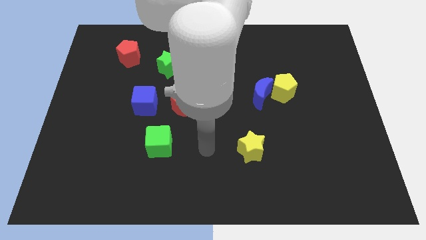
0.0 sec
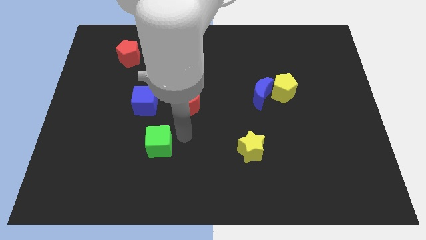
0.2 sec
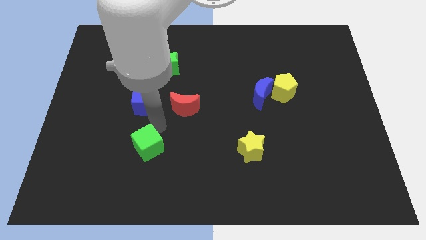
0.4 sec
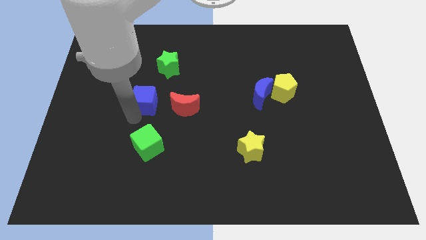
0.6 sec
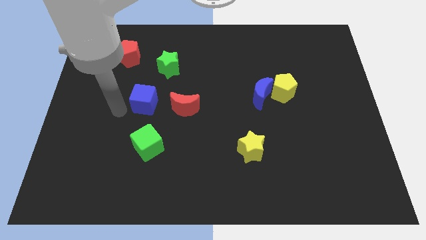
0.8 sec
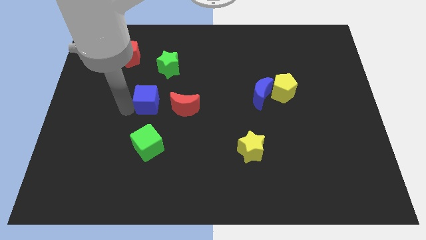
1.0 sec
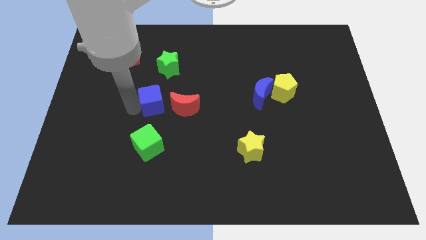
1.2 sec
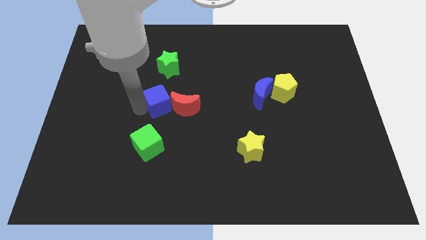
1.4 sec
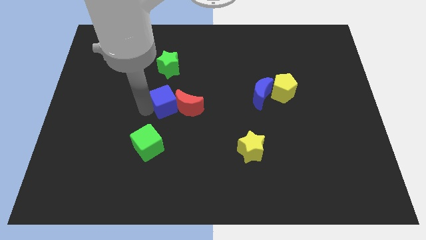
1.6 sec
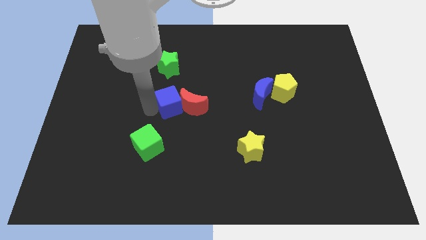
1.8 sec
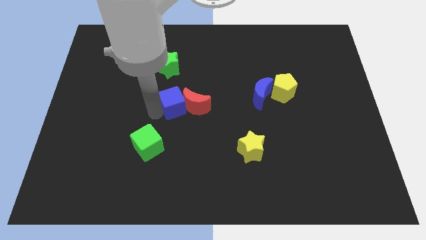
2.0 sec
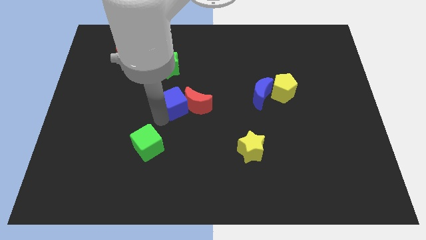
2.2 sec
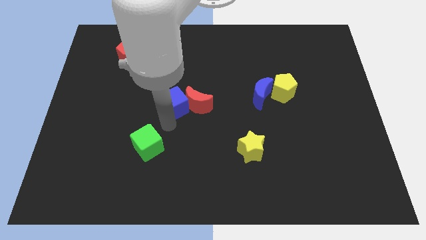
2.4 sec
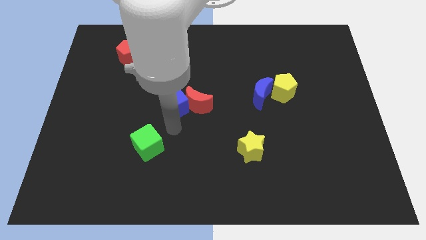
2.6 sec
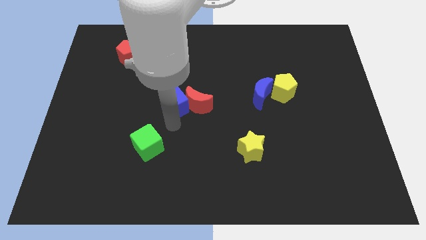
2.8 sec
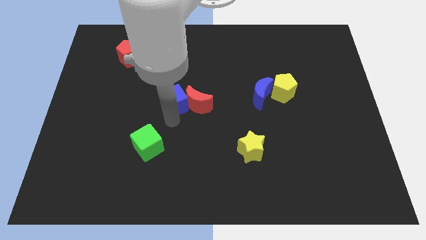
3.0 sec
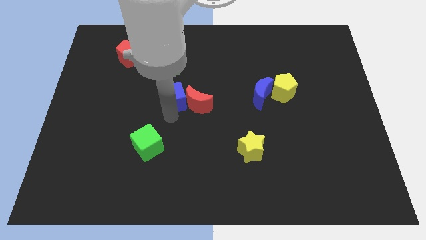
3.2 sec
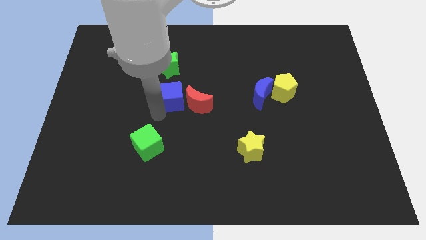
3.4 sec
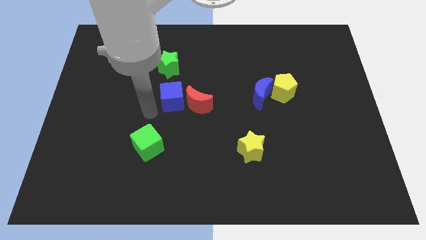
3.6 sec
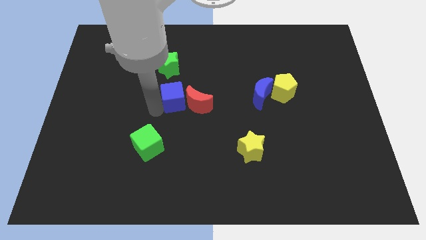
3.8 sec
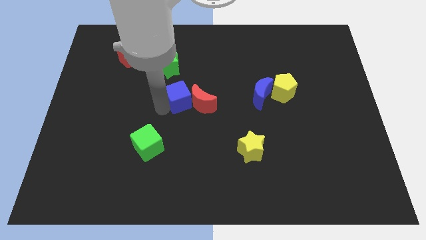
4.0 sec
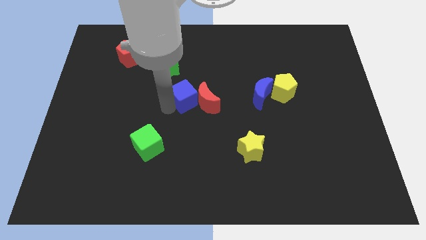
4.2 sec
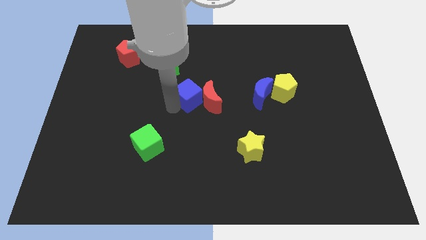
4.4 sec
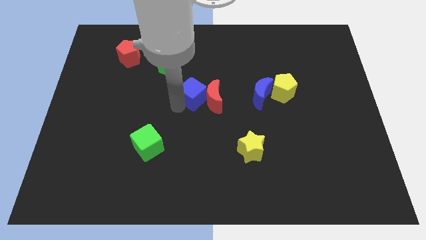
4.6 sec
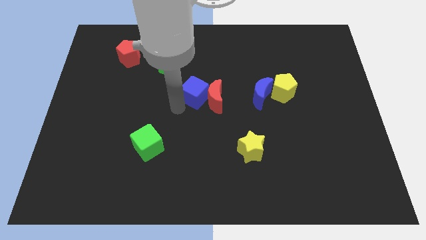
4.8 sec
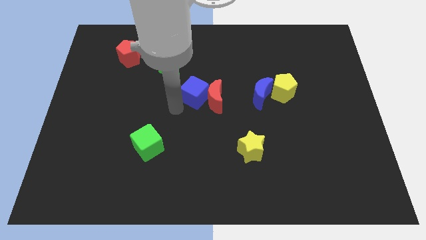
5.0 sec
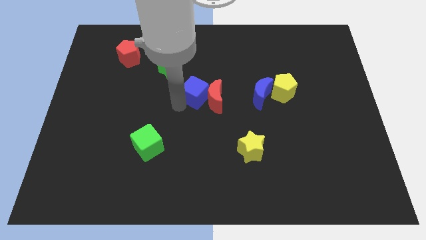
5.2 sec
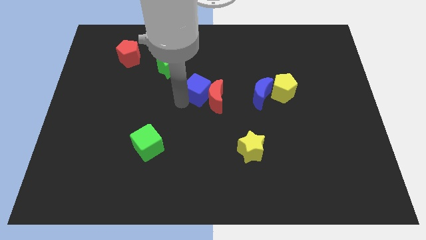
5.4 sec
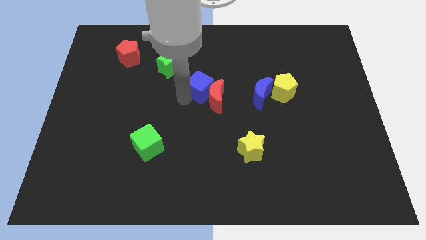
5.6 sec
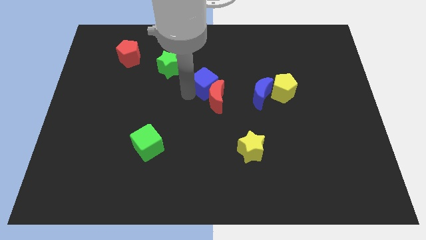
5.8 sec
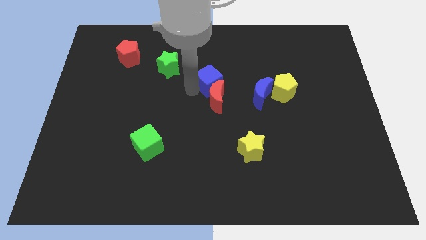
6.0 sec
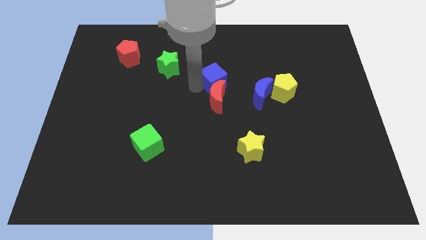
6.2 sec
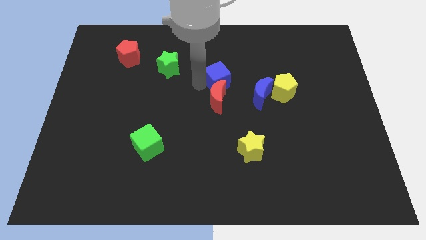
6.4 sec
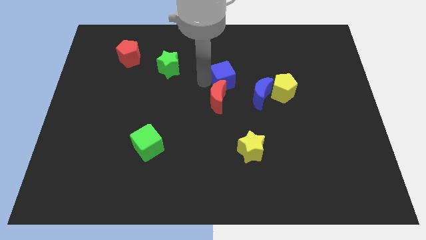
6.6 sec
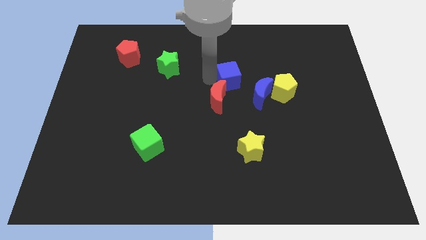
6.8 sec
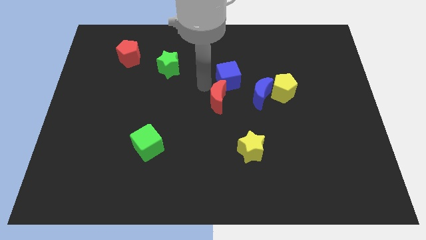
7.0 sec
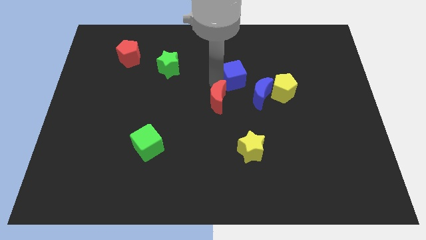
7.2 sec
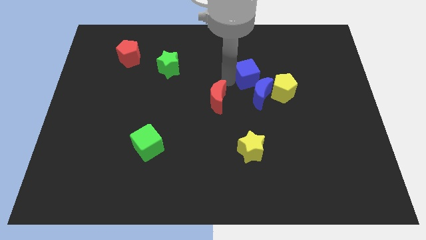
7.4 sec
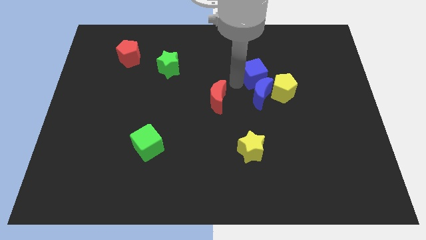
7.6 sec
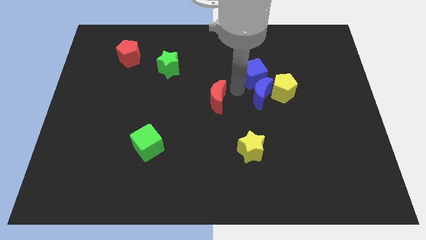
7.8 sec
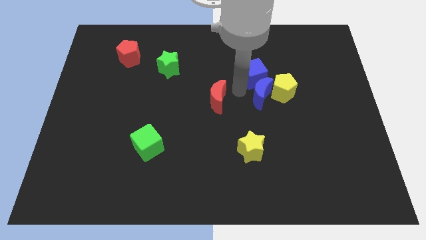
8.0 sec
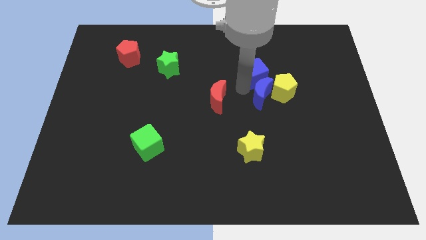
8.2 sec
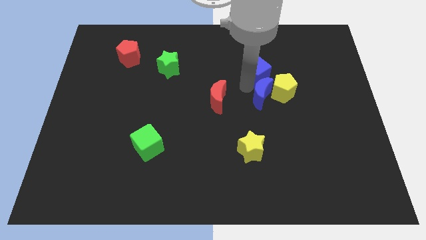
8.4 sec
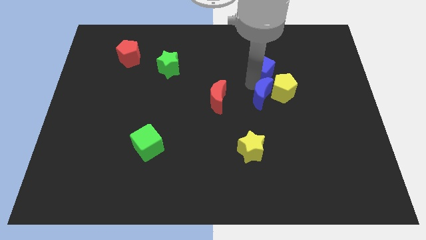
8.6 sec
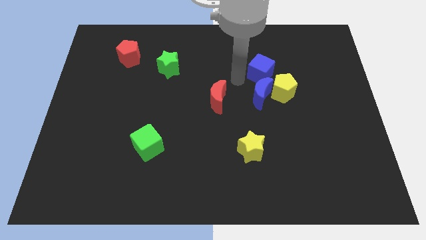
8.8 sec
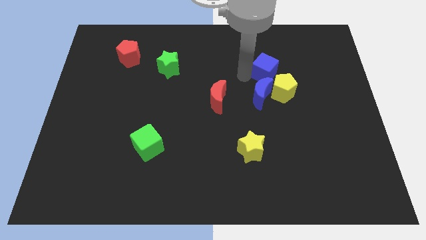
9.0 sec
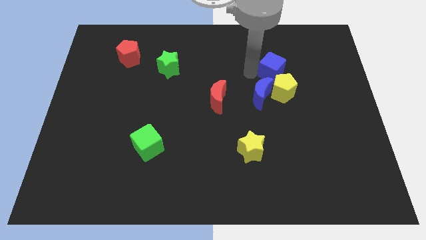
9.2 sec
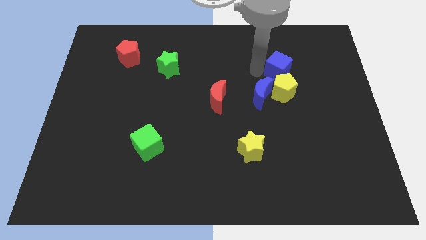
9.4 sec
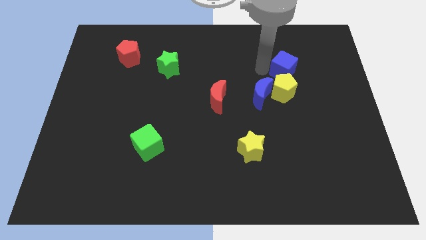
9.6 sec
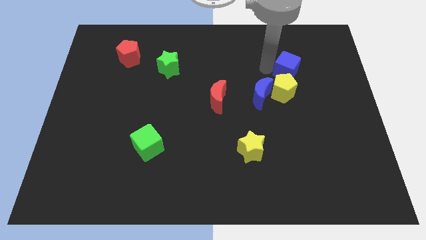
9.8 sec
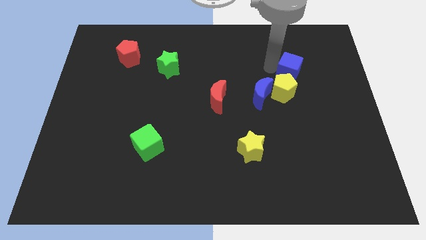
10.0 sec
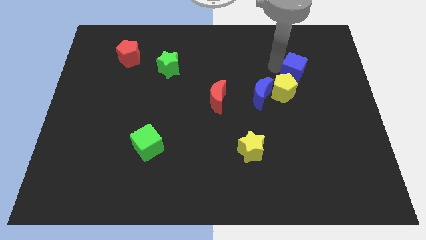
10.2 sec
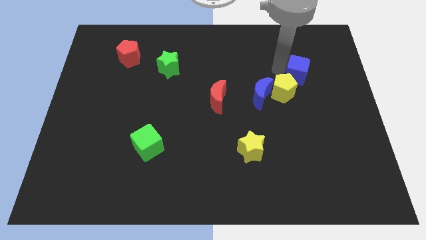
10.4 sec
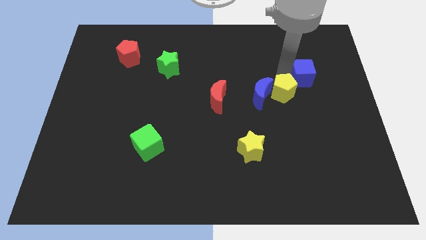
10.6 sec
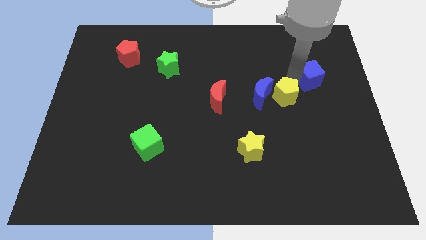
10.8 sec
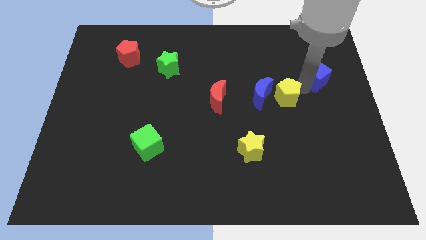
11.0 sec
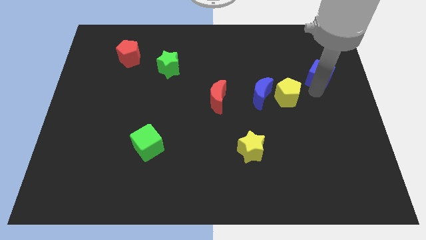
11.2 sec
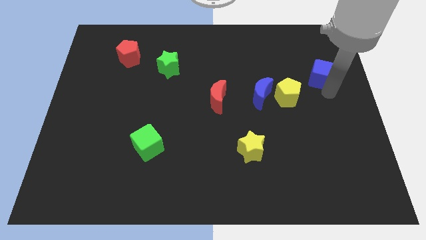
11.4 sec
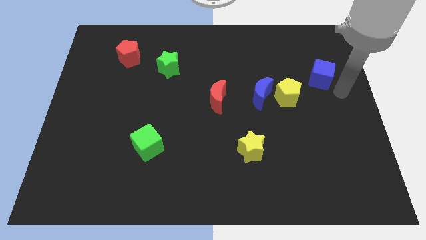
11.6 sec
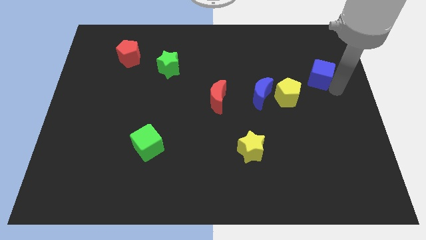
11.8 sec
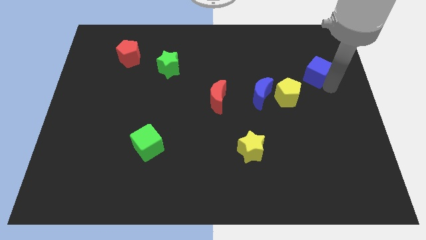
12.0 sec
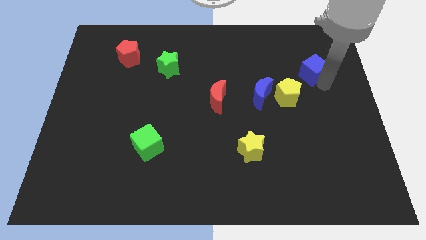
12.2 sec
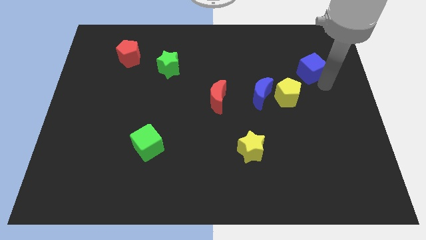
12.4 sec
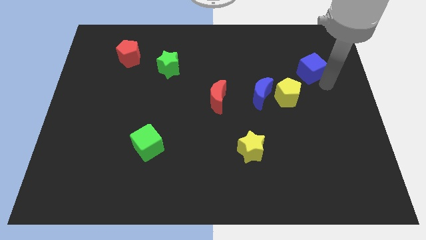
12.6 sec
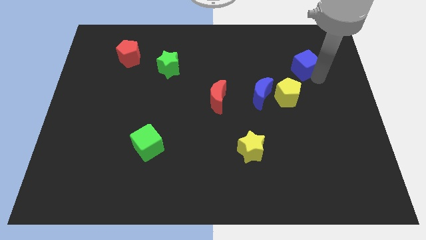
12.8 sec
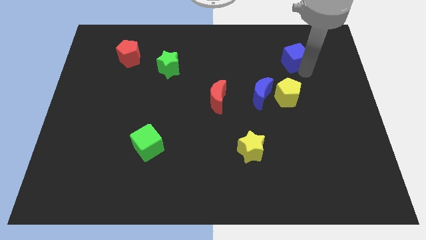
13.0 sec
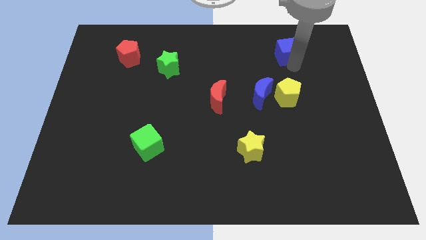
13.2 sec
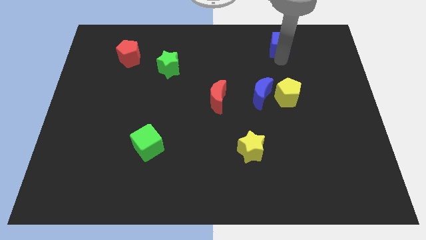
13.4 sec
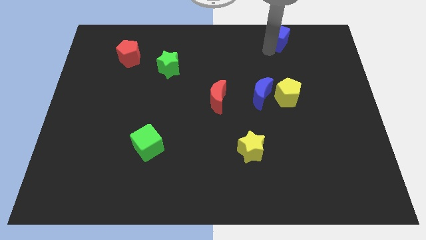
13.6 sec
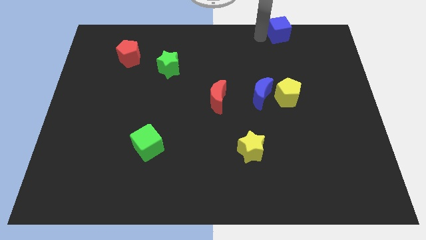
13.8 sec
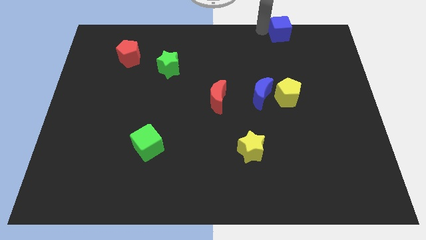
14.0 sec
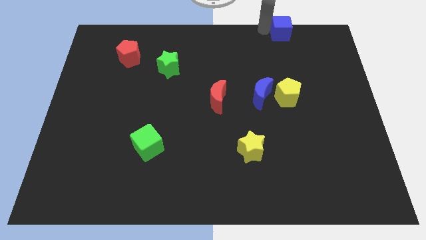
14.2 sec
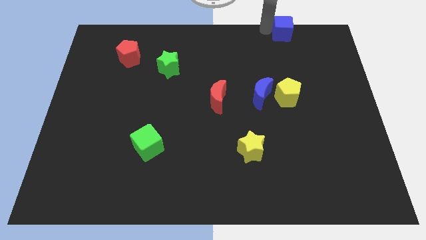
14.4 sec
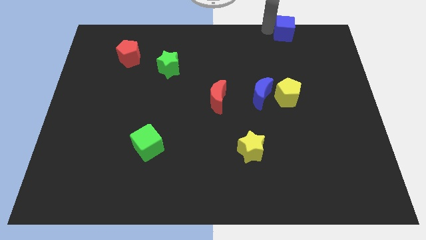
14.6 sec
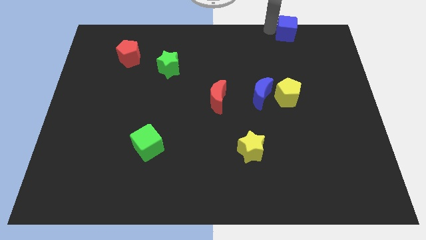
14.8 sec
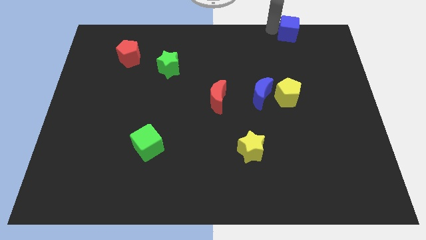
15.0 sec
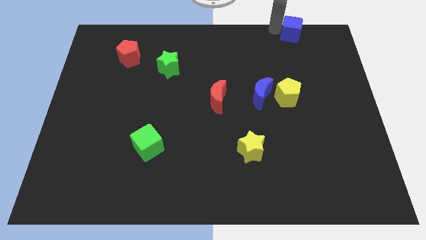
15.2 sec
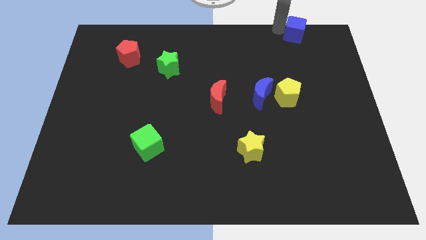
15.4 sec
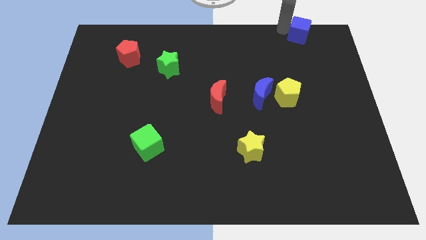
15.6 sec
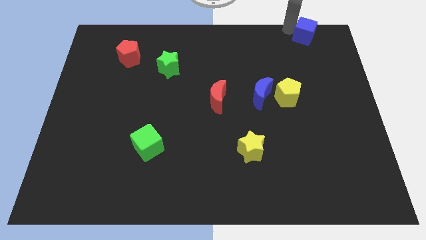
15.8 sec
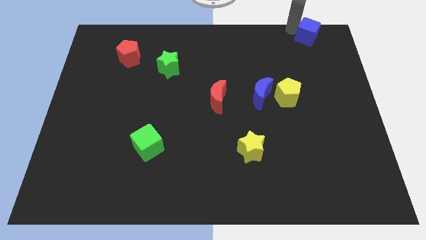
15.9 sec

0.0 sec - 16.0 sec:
push the blue cube to the top right corner
